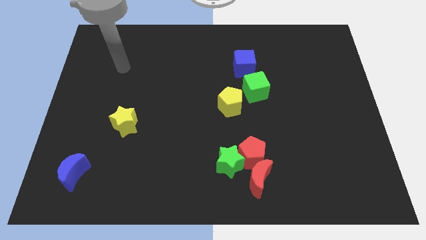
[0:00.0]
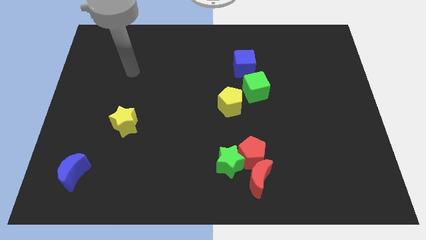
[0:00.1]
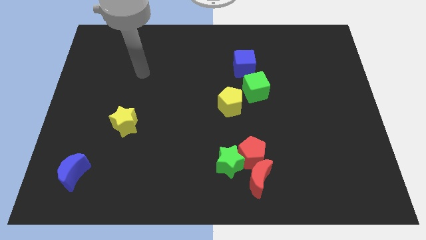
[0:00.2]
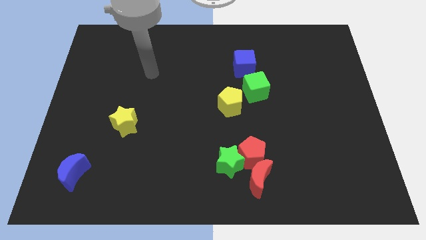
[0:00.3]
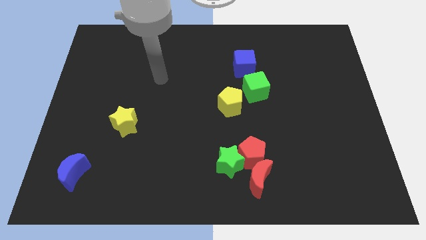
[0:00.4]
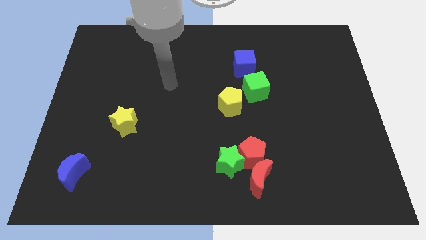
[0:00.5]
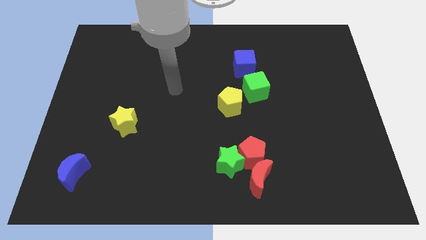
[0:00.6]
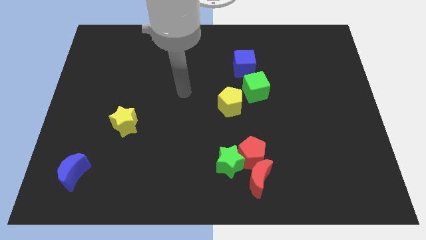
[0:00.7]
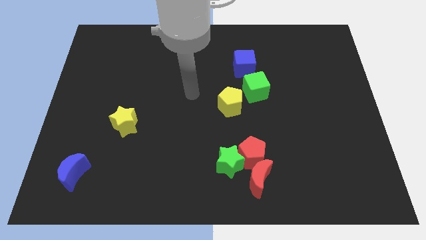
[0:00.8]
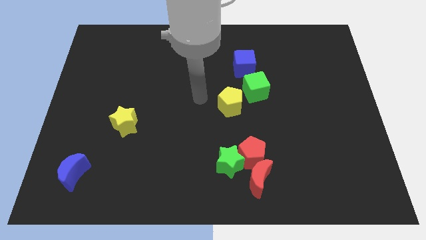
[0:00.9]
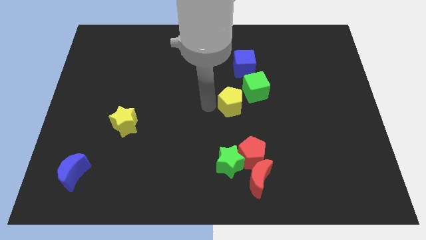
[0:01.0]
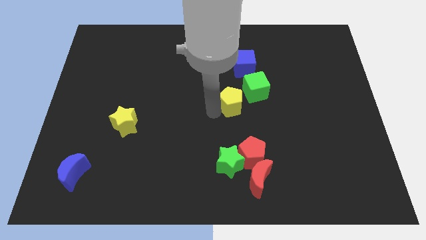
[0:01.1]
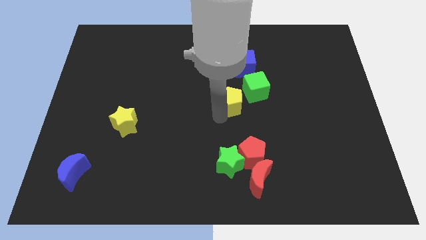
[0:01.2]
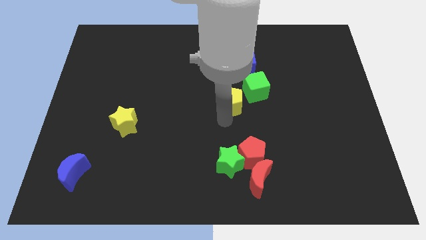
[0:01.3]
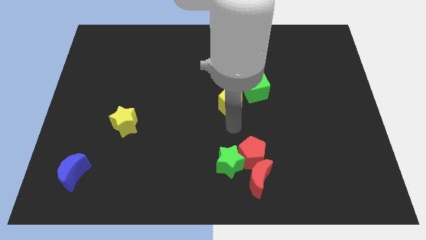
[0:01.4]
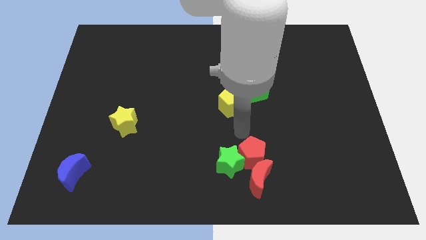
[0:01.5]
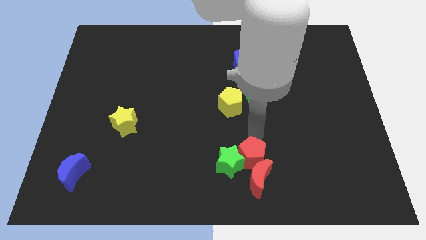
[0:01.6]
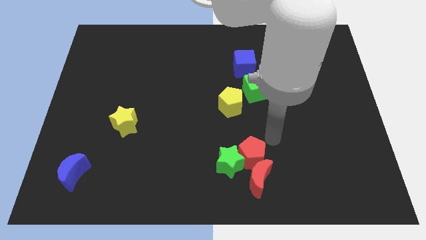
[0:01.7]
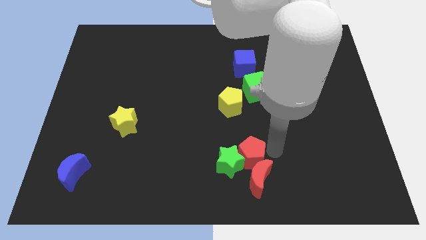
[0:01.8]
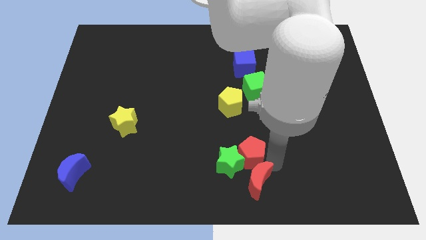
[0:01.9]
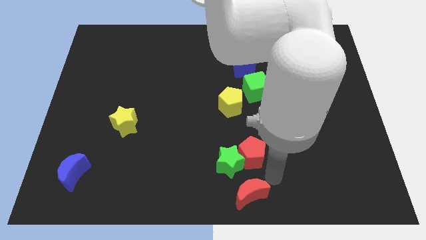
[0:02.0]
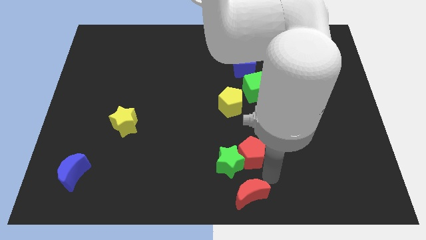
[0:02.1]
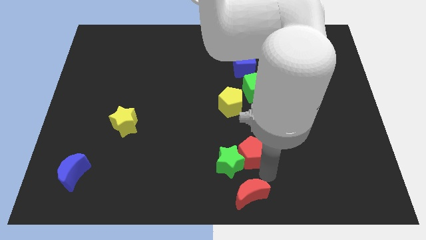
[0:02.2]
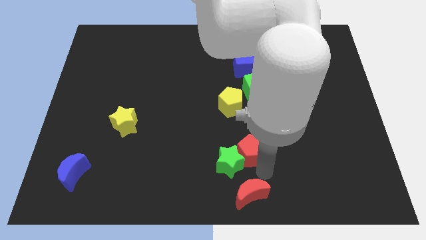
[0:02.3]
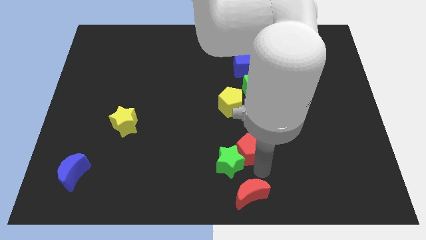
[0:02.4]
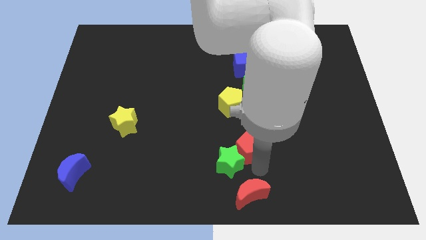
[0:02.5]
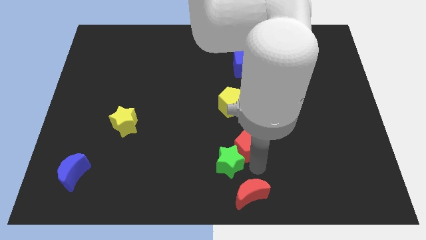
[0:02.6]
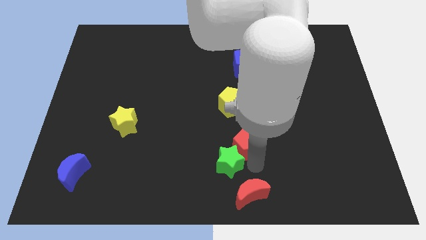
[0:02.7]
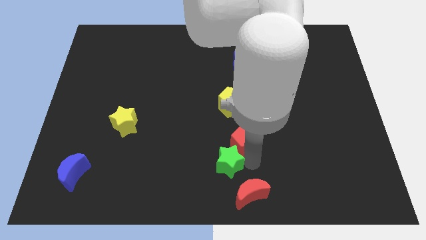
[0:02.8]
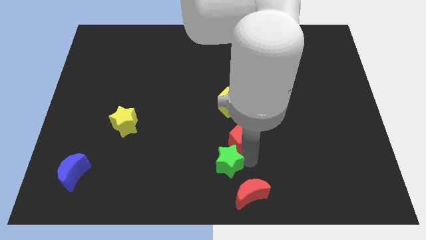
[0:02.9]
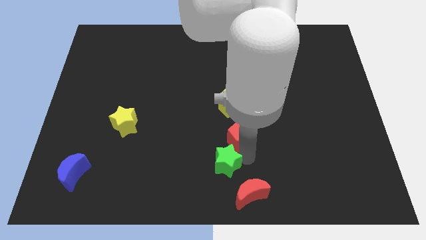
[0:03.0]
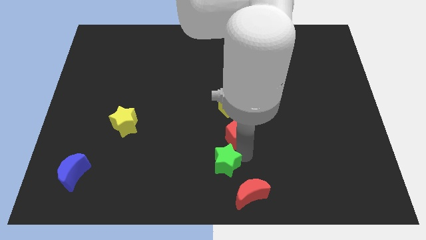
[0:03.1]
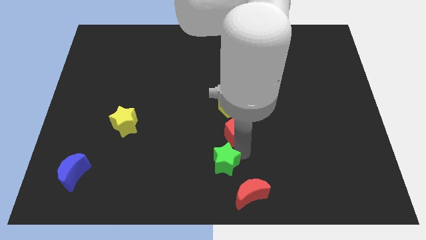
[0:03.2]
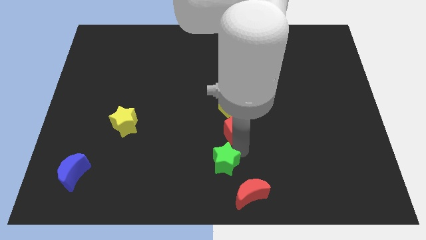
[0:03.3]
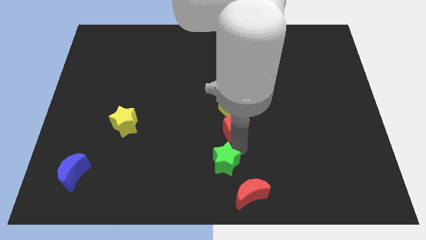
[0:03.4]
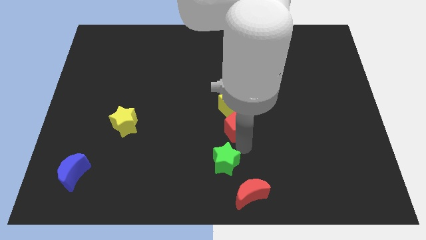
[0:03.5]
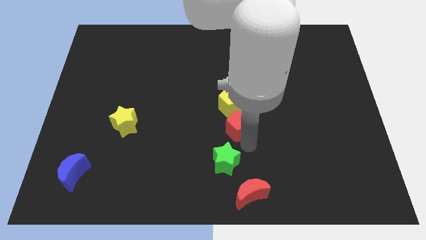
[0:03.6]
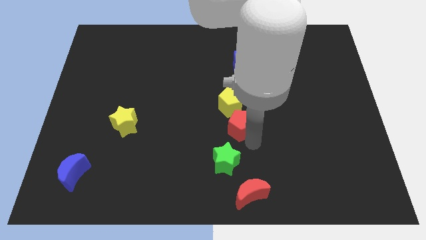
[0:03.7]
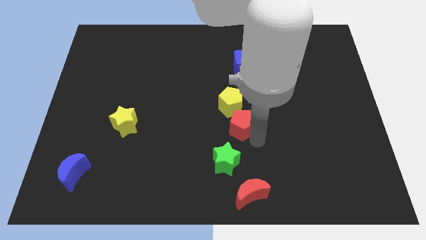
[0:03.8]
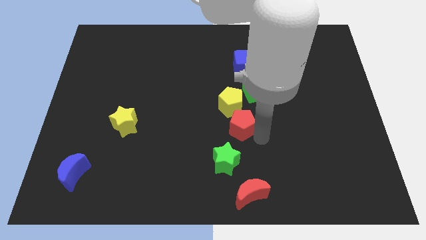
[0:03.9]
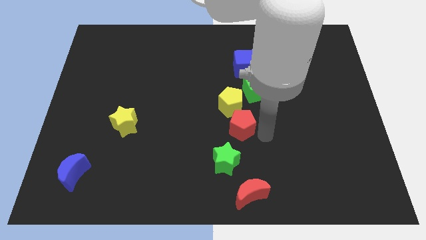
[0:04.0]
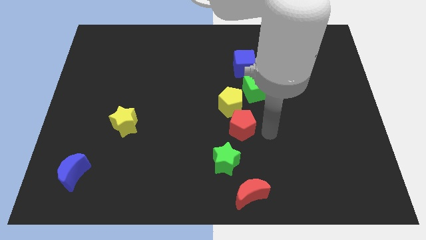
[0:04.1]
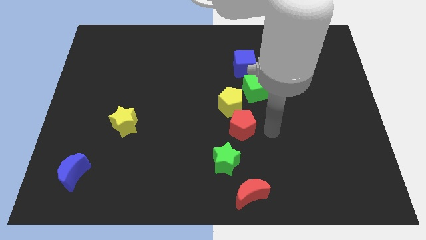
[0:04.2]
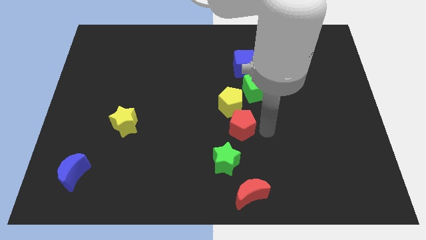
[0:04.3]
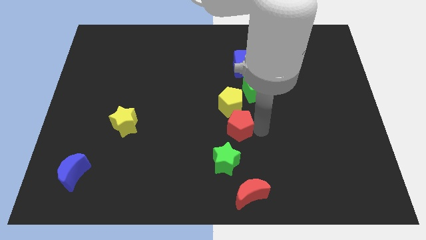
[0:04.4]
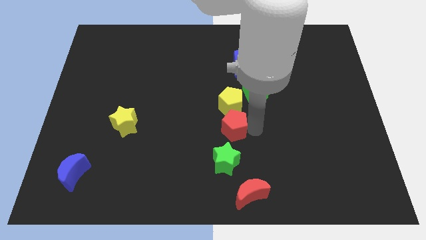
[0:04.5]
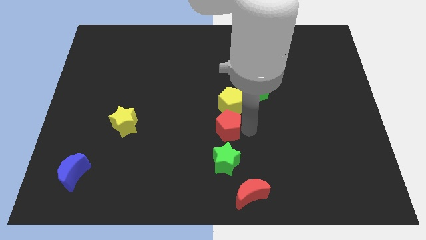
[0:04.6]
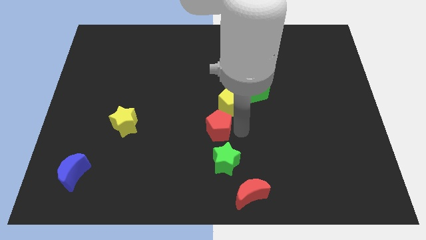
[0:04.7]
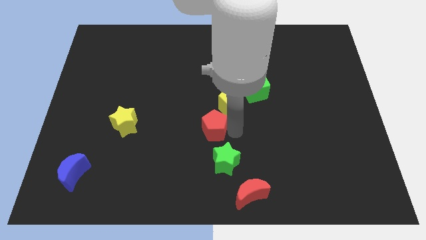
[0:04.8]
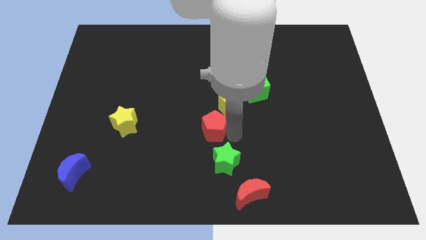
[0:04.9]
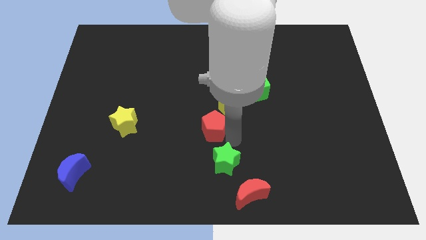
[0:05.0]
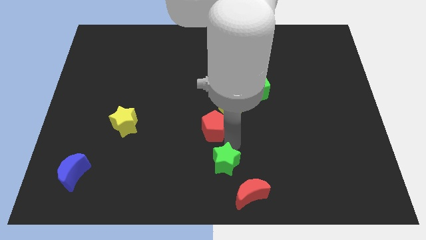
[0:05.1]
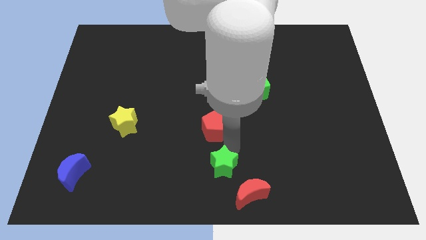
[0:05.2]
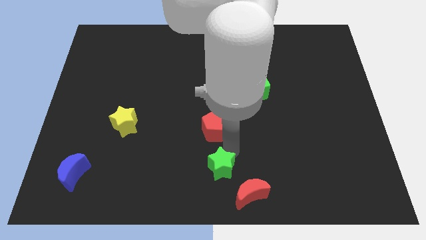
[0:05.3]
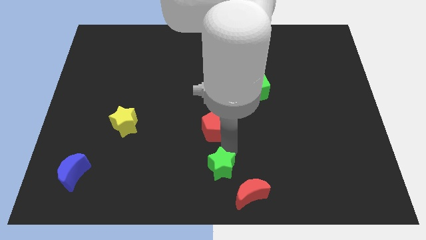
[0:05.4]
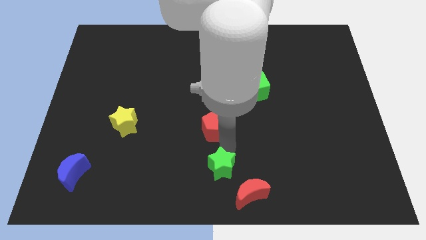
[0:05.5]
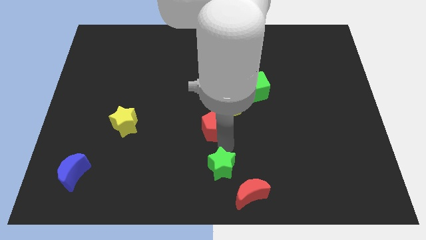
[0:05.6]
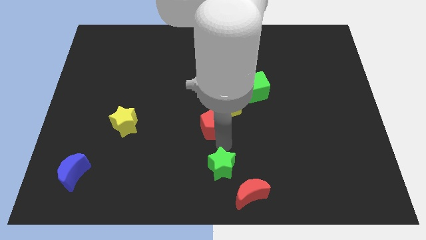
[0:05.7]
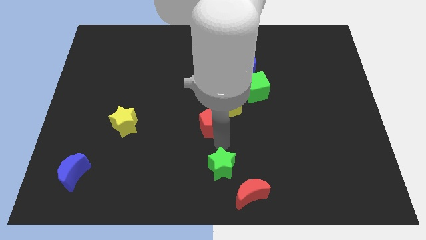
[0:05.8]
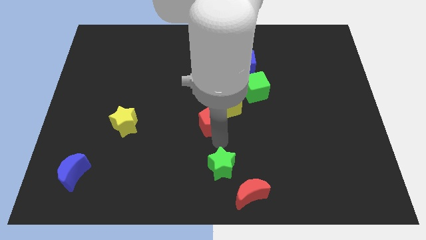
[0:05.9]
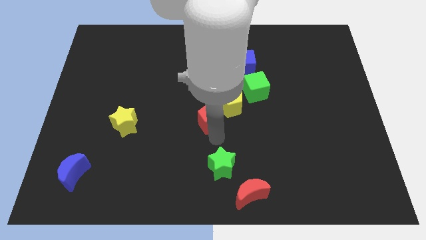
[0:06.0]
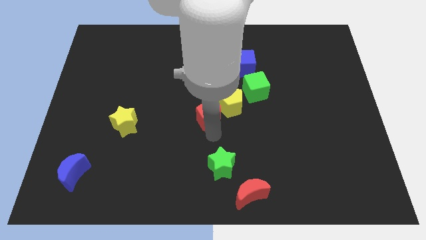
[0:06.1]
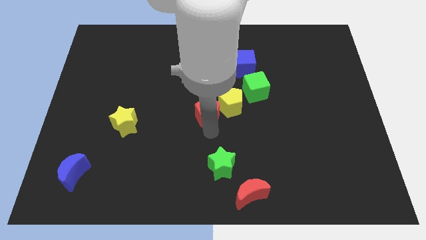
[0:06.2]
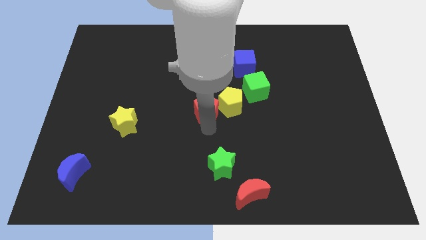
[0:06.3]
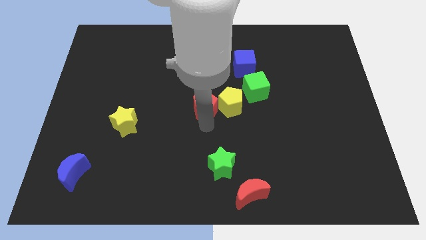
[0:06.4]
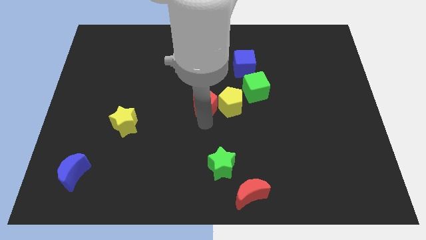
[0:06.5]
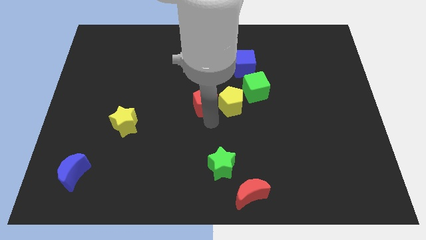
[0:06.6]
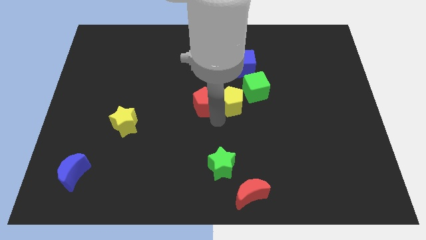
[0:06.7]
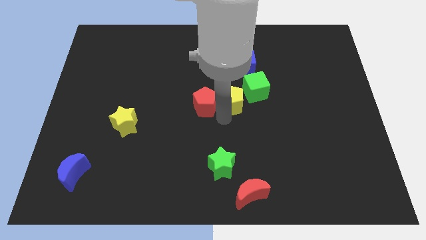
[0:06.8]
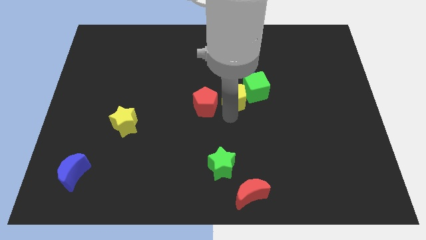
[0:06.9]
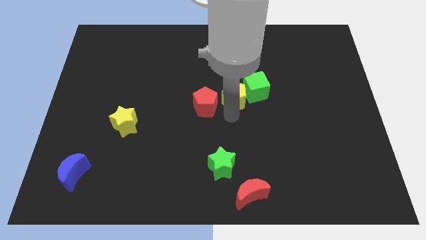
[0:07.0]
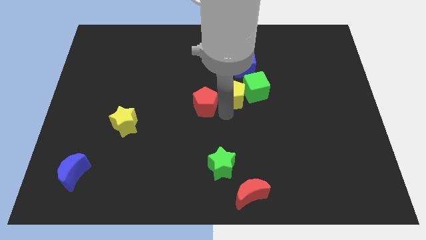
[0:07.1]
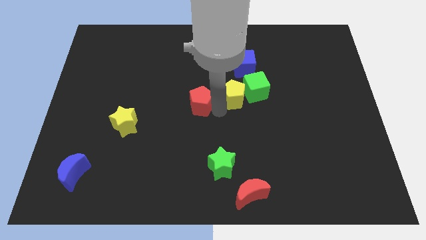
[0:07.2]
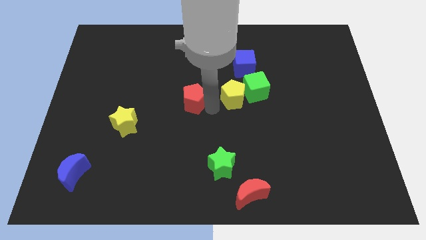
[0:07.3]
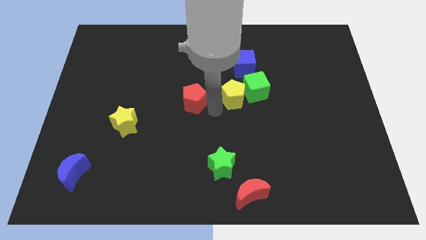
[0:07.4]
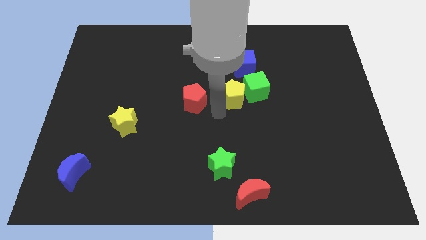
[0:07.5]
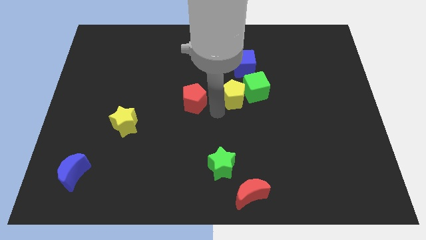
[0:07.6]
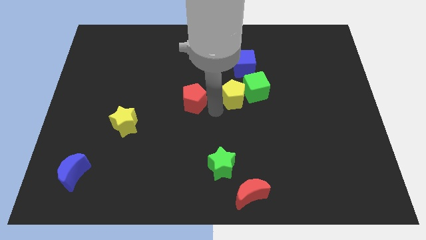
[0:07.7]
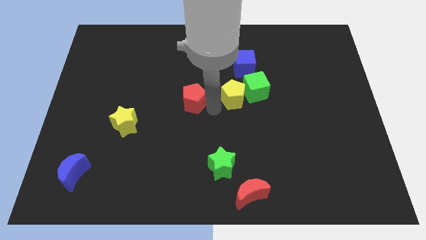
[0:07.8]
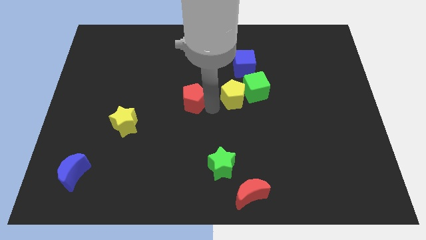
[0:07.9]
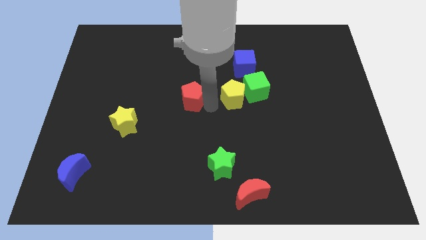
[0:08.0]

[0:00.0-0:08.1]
slide the red pentagon upwards and then left

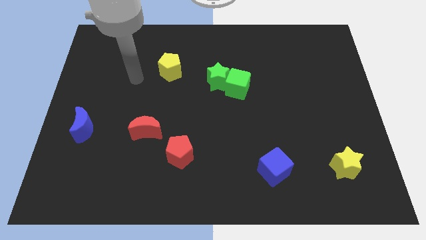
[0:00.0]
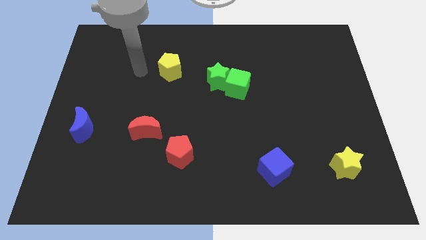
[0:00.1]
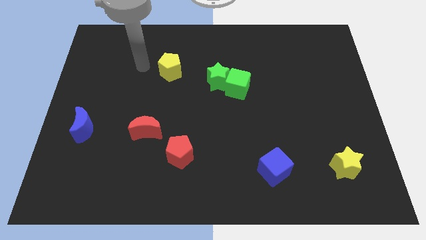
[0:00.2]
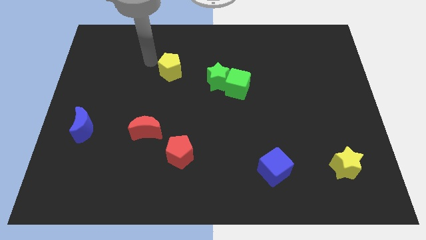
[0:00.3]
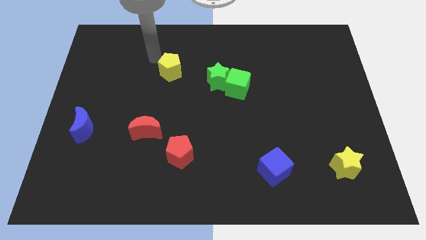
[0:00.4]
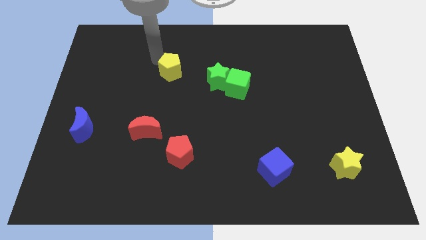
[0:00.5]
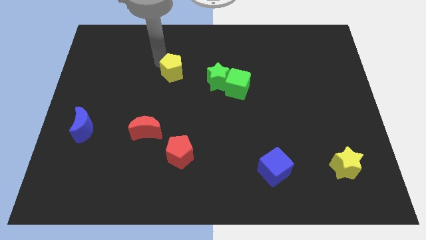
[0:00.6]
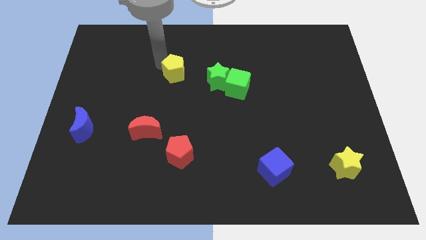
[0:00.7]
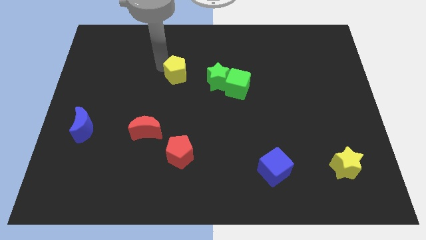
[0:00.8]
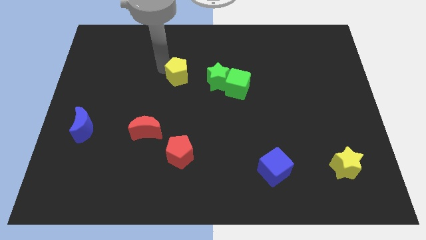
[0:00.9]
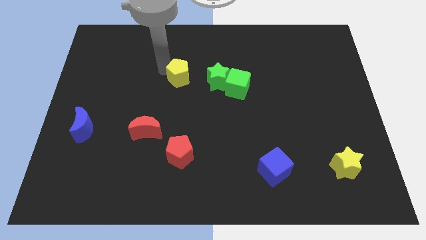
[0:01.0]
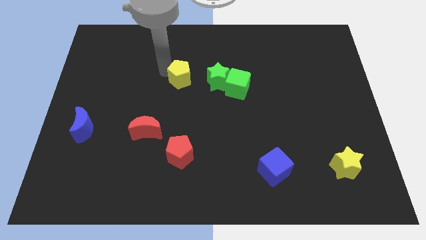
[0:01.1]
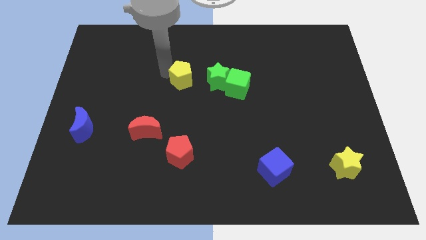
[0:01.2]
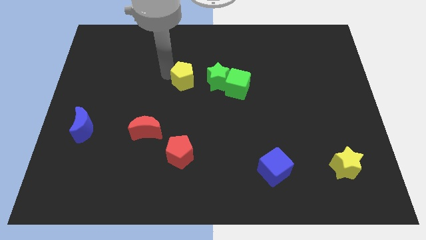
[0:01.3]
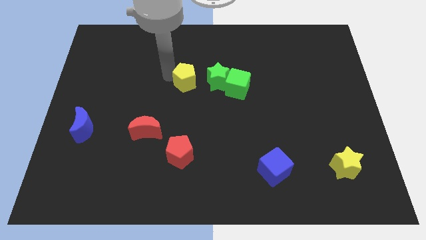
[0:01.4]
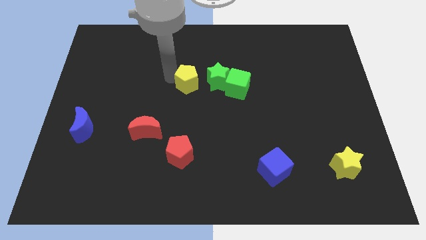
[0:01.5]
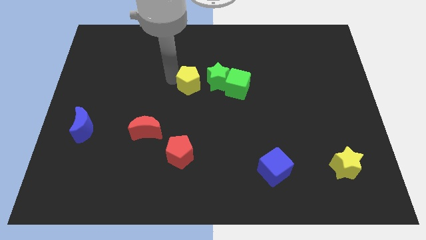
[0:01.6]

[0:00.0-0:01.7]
move the yellow pentagon slightly downwards and to the right diagonally
